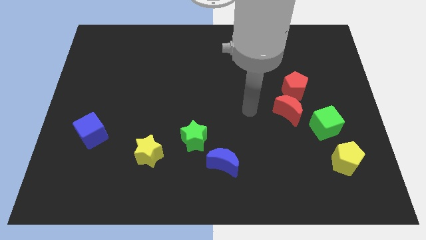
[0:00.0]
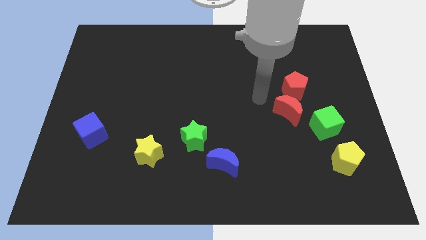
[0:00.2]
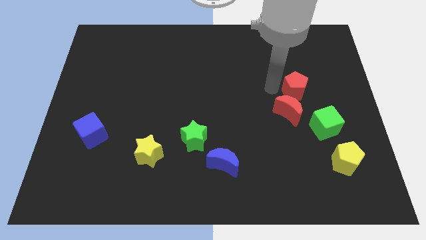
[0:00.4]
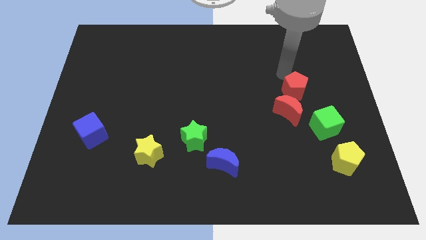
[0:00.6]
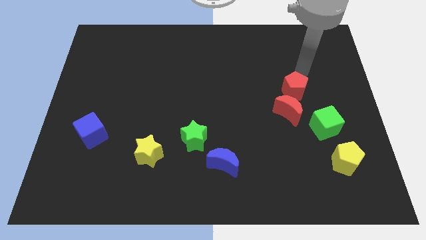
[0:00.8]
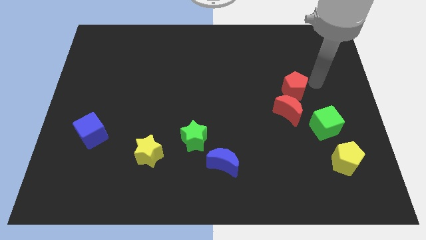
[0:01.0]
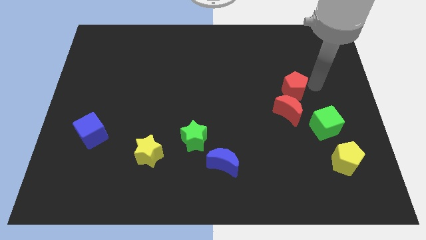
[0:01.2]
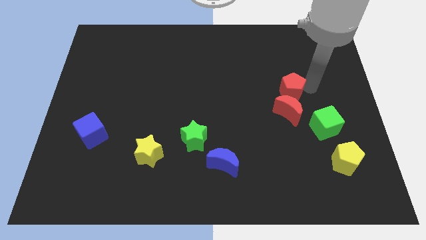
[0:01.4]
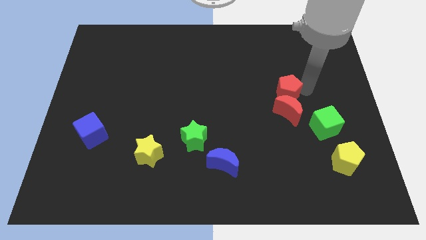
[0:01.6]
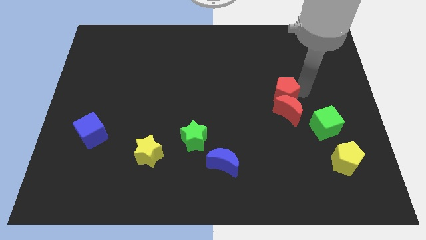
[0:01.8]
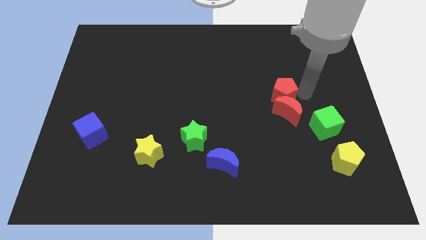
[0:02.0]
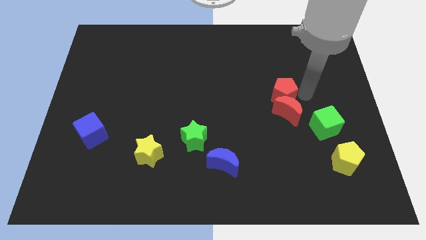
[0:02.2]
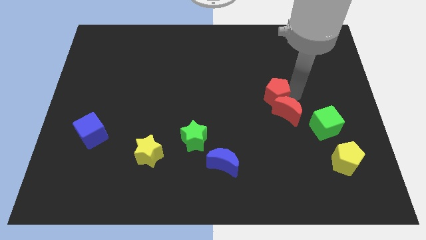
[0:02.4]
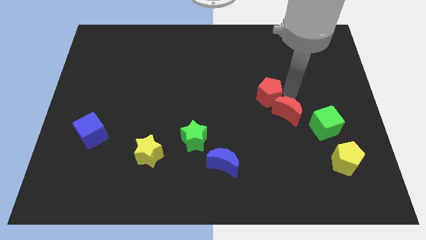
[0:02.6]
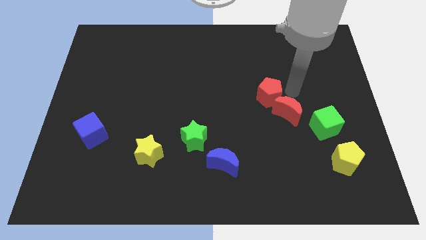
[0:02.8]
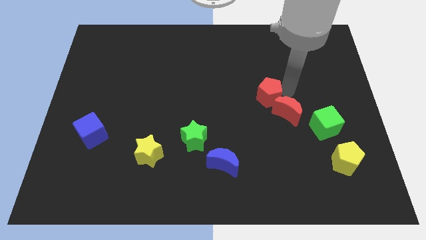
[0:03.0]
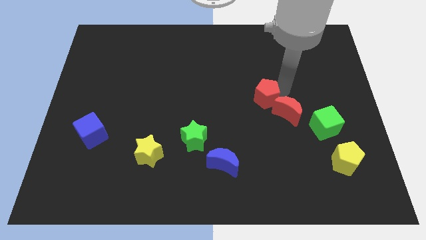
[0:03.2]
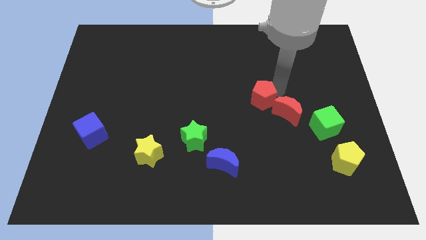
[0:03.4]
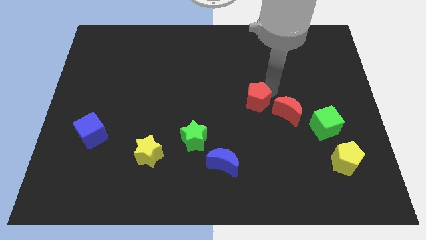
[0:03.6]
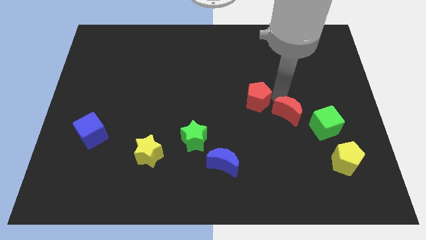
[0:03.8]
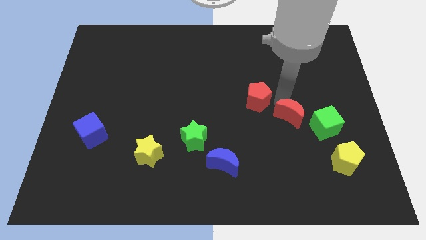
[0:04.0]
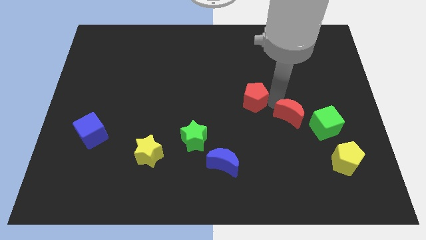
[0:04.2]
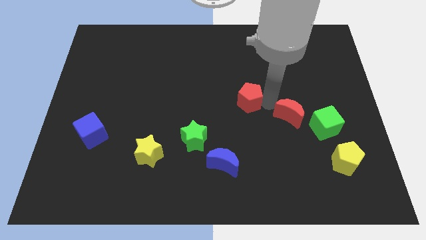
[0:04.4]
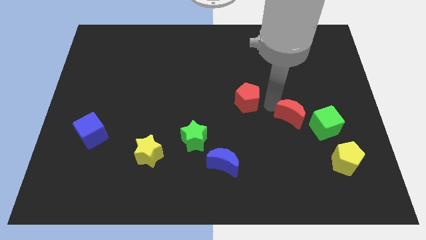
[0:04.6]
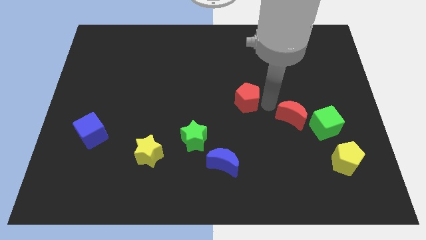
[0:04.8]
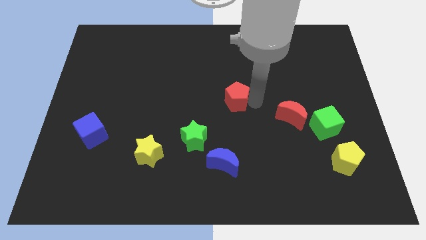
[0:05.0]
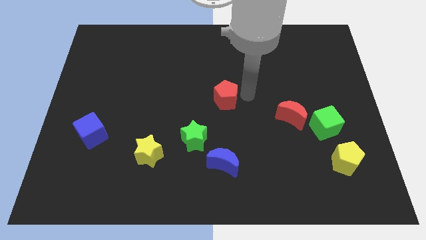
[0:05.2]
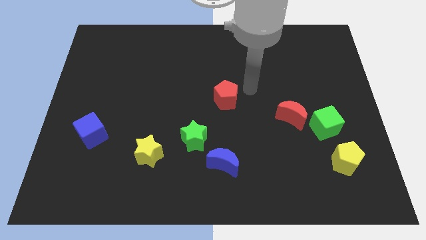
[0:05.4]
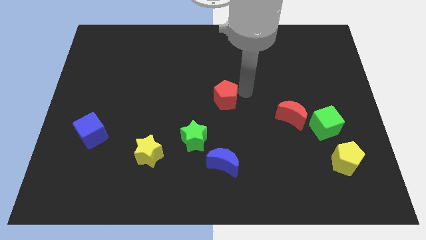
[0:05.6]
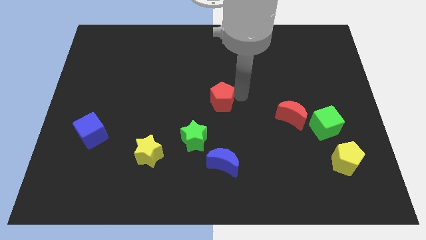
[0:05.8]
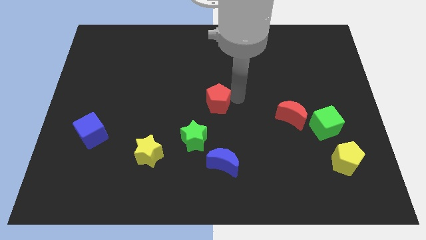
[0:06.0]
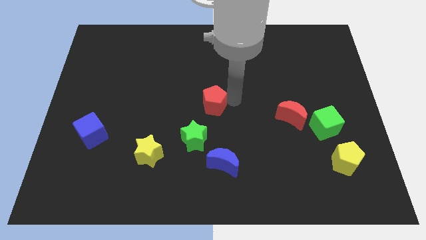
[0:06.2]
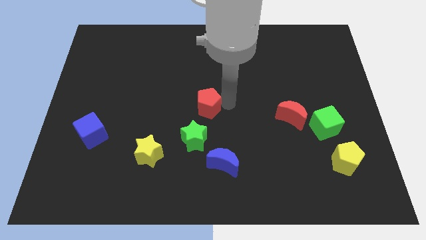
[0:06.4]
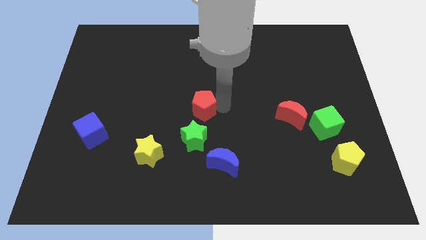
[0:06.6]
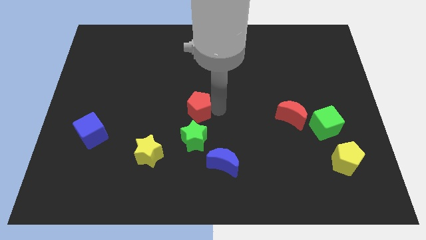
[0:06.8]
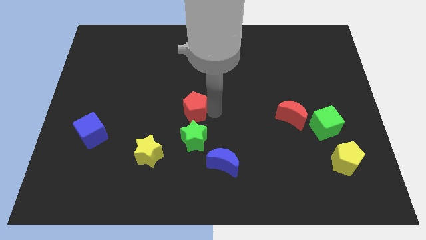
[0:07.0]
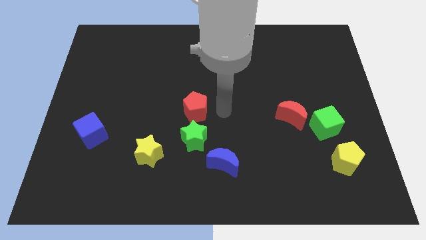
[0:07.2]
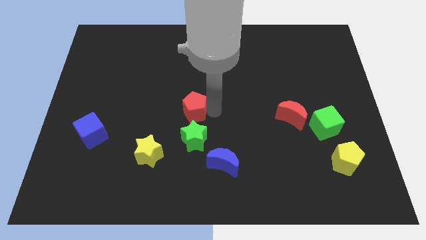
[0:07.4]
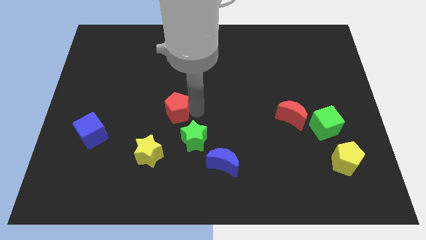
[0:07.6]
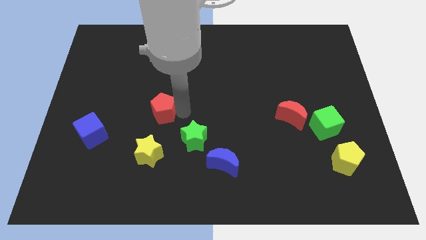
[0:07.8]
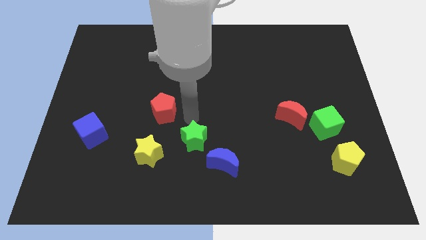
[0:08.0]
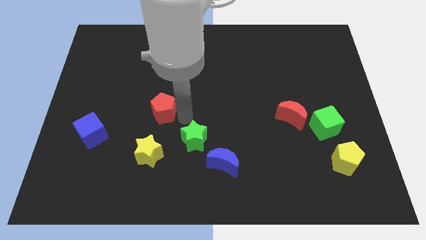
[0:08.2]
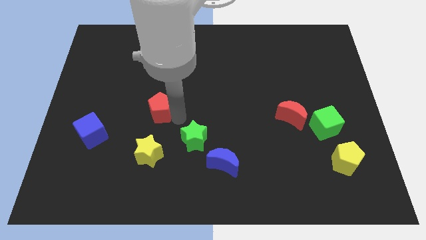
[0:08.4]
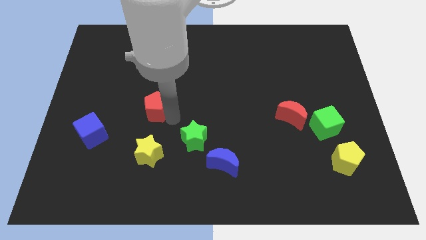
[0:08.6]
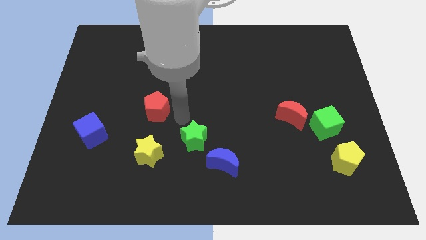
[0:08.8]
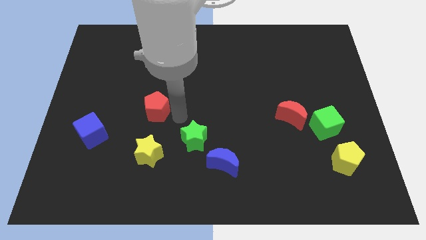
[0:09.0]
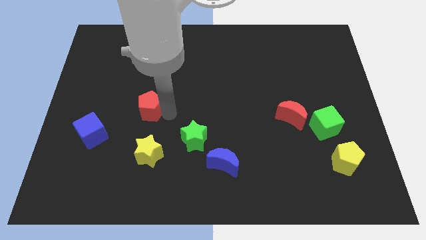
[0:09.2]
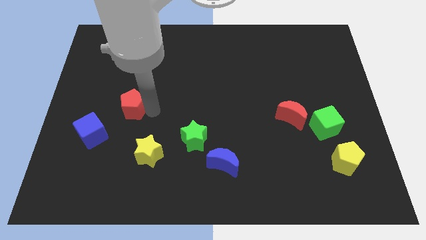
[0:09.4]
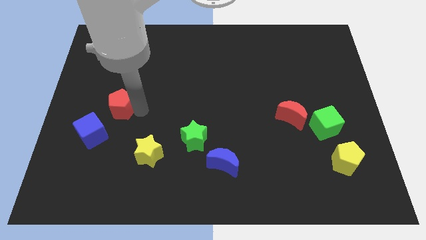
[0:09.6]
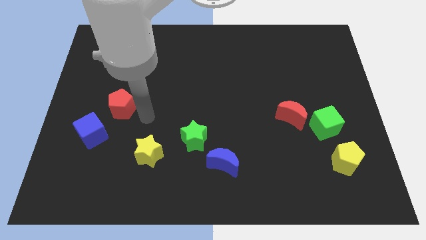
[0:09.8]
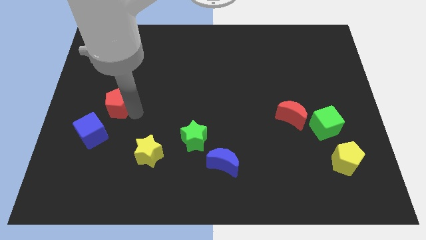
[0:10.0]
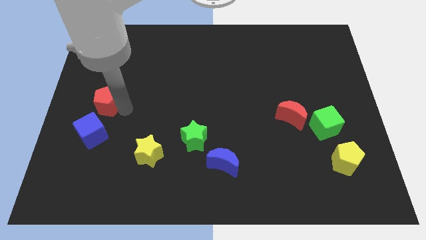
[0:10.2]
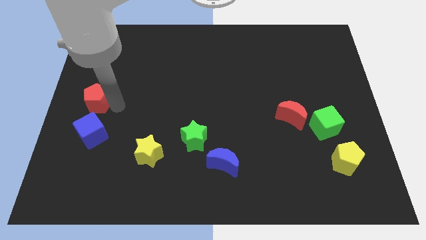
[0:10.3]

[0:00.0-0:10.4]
put the red pentagon to the center left

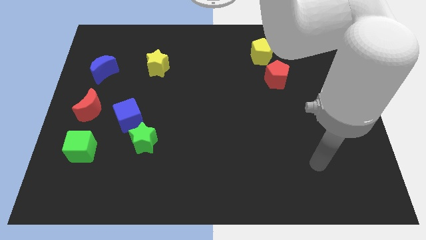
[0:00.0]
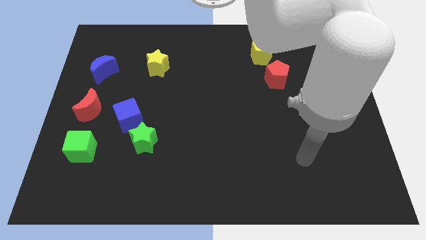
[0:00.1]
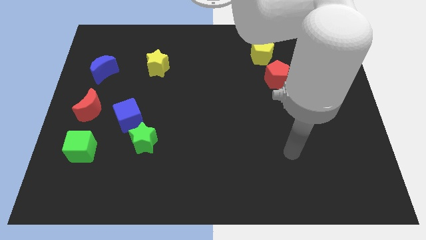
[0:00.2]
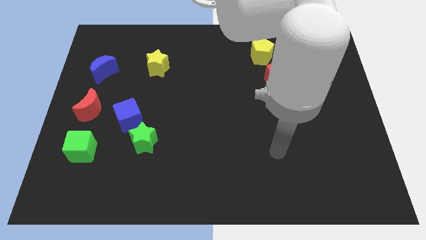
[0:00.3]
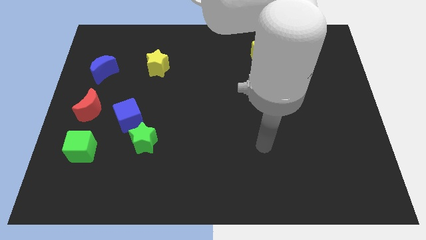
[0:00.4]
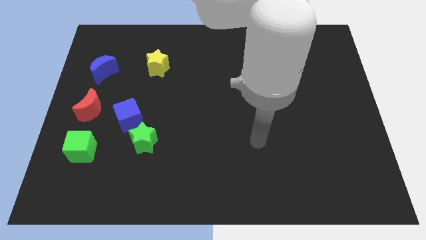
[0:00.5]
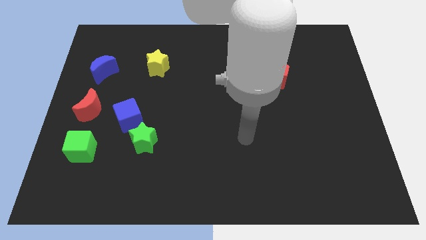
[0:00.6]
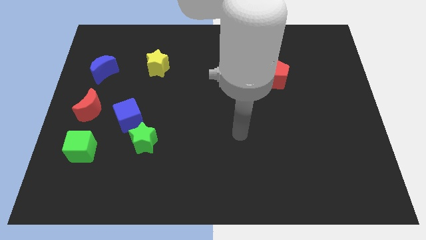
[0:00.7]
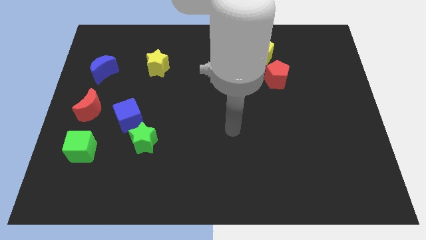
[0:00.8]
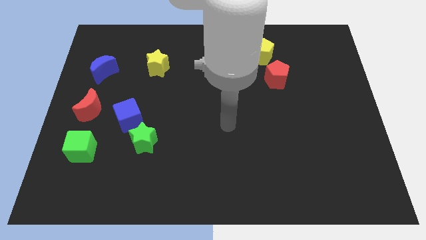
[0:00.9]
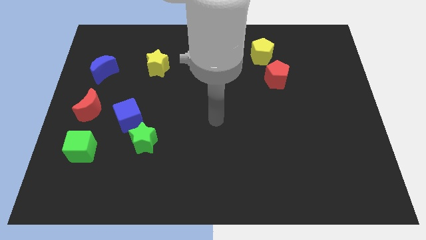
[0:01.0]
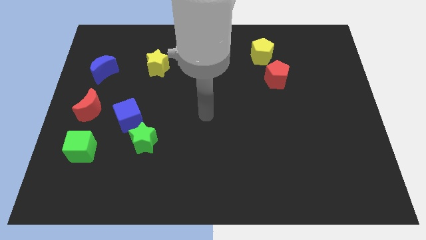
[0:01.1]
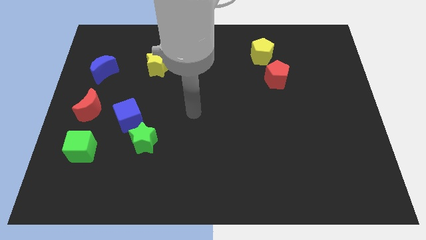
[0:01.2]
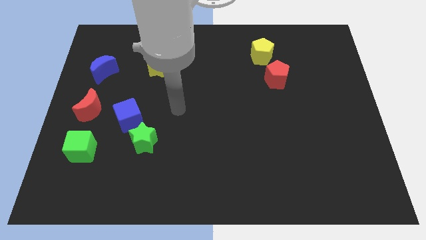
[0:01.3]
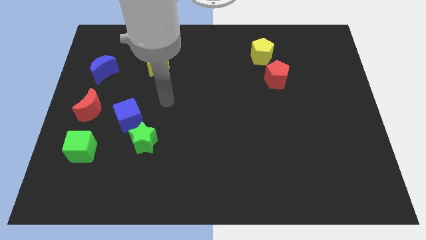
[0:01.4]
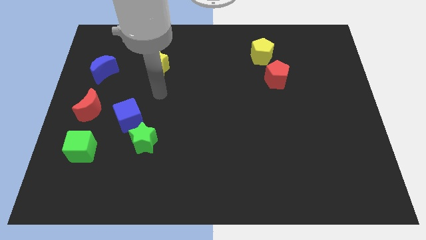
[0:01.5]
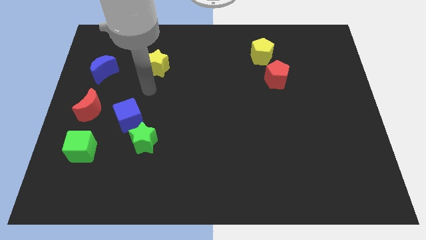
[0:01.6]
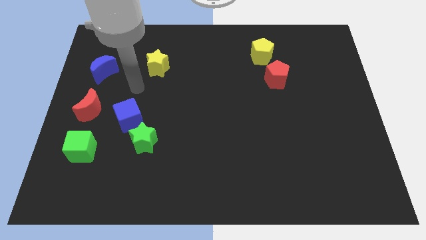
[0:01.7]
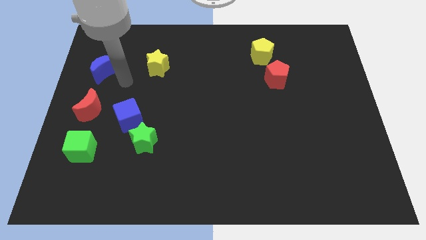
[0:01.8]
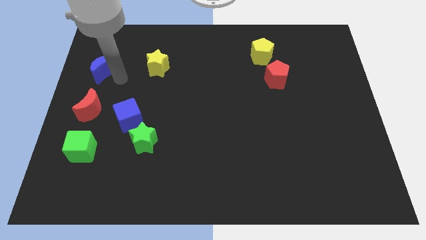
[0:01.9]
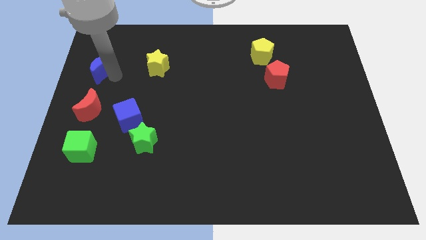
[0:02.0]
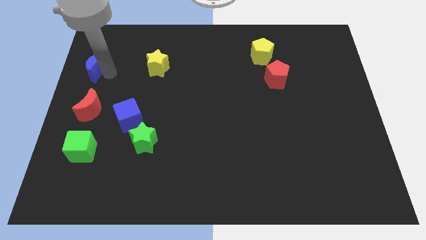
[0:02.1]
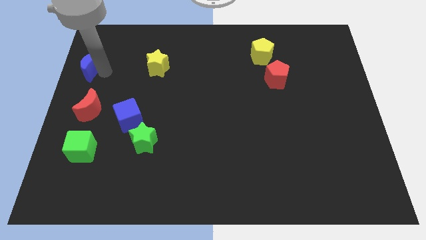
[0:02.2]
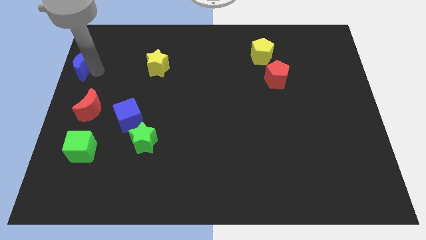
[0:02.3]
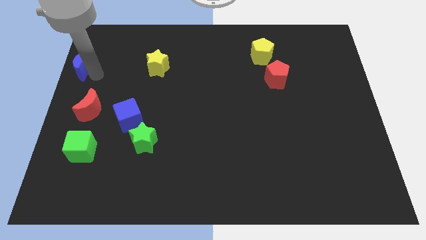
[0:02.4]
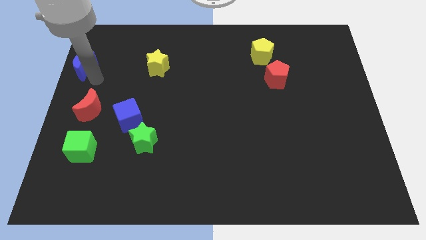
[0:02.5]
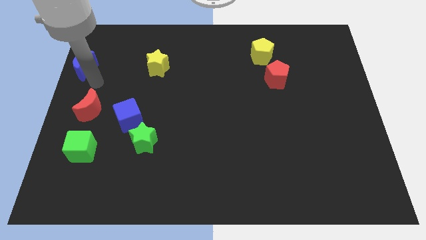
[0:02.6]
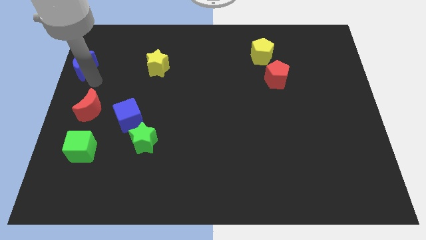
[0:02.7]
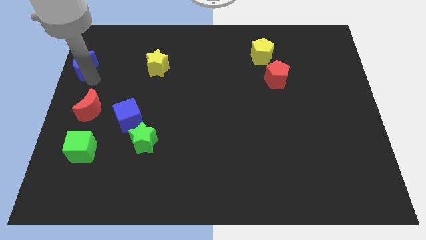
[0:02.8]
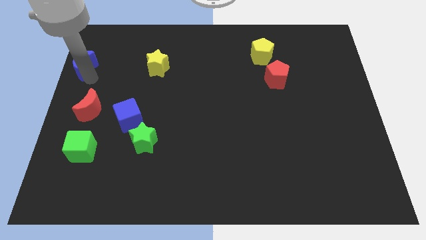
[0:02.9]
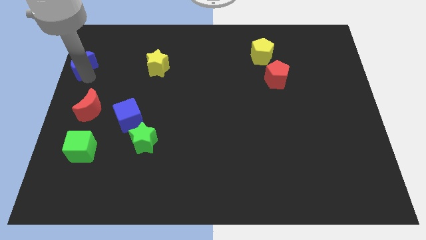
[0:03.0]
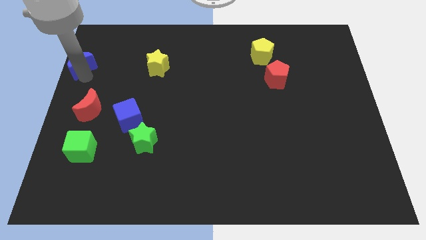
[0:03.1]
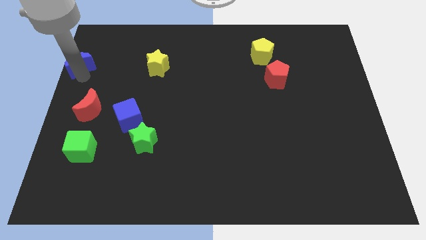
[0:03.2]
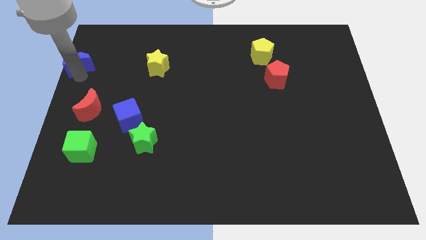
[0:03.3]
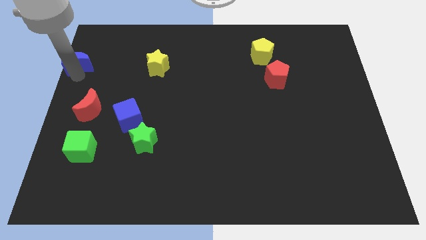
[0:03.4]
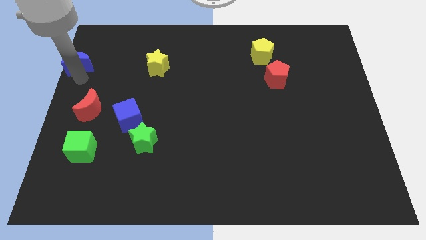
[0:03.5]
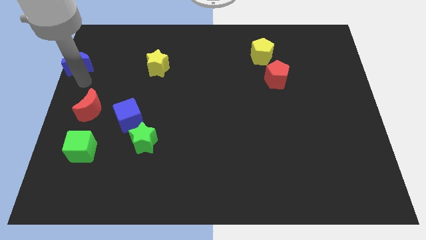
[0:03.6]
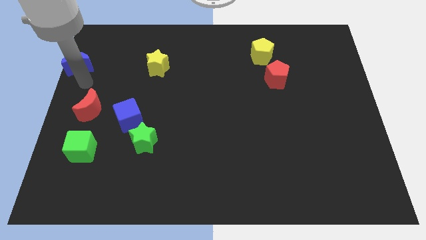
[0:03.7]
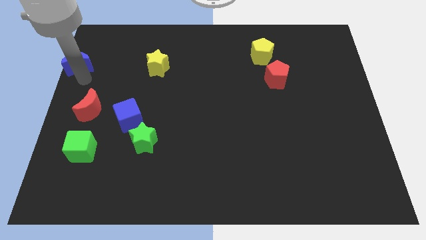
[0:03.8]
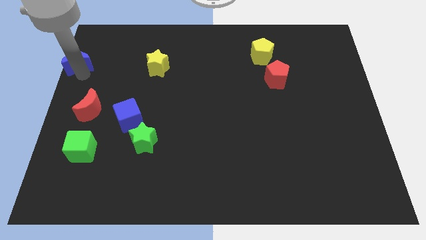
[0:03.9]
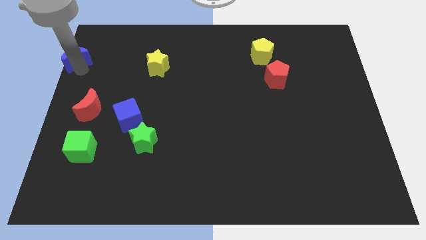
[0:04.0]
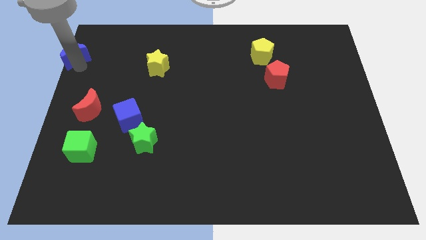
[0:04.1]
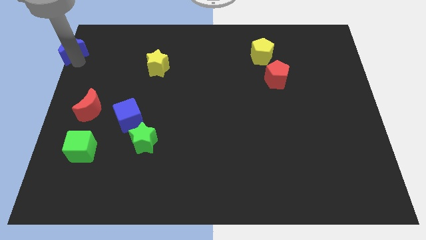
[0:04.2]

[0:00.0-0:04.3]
slide the blue moon to the top left
